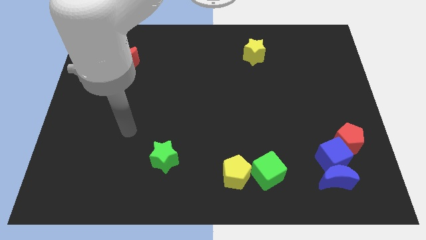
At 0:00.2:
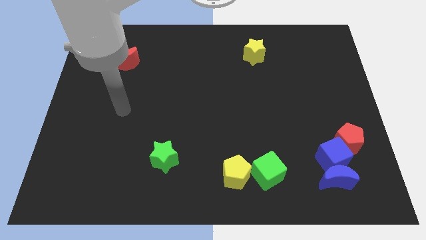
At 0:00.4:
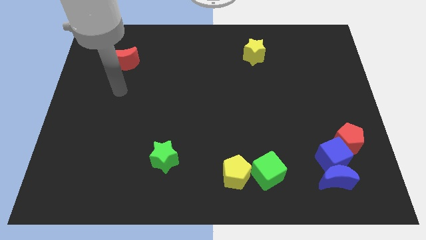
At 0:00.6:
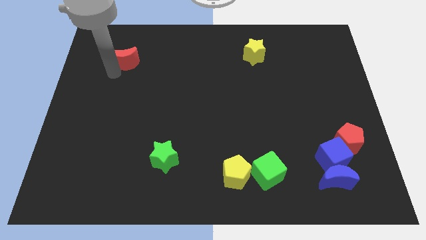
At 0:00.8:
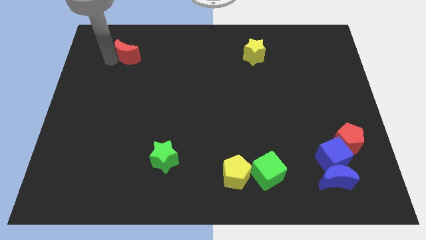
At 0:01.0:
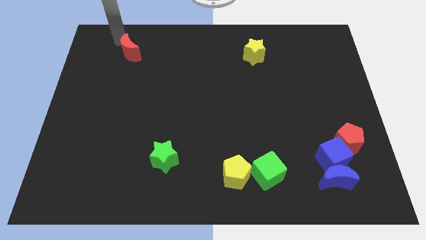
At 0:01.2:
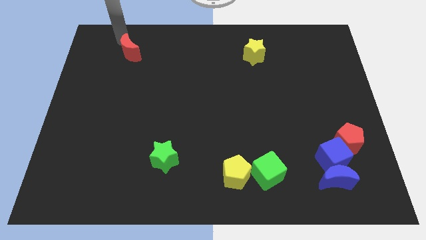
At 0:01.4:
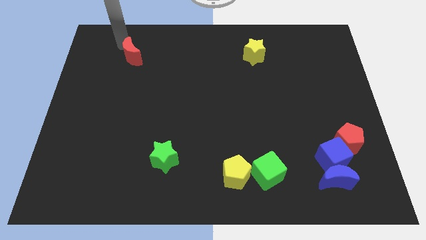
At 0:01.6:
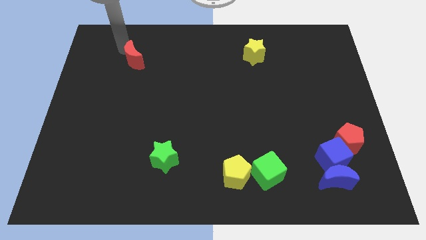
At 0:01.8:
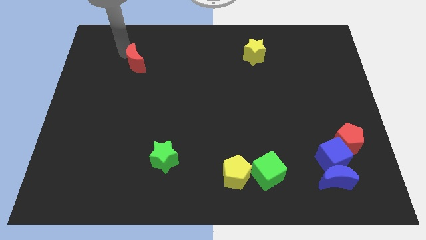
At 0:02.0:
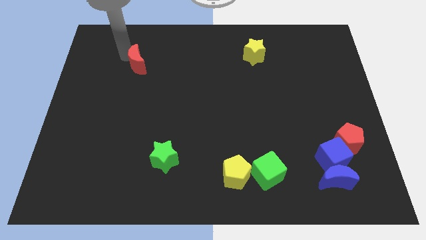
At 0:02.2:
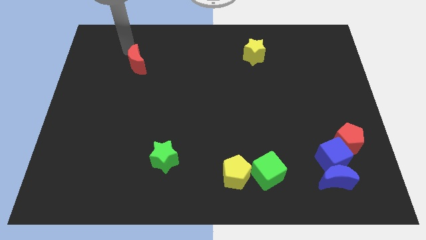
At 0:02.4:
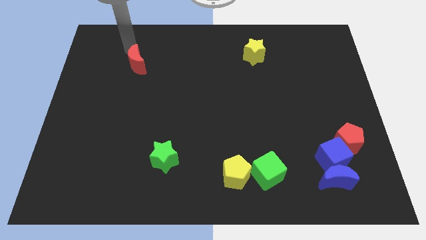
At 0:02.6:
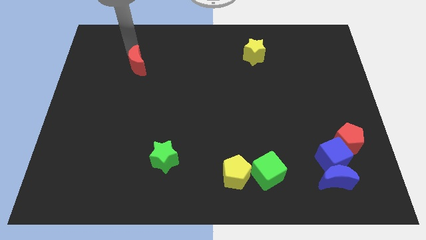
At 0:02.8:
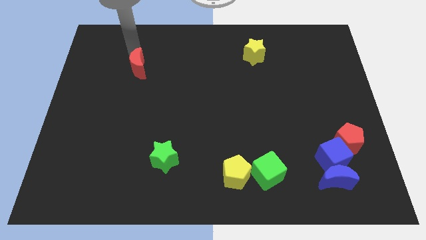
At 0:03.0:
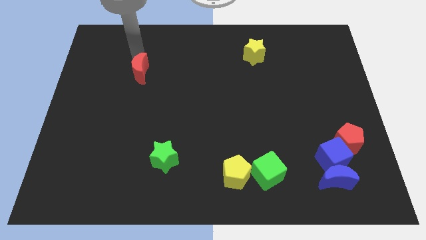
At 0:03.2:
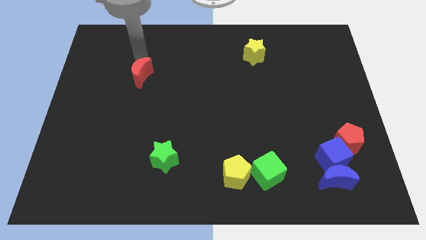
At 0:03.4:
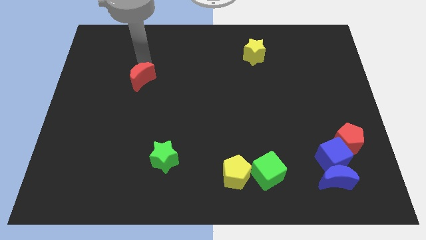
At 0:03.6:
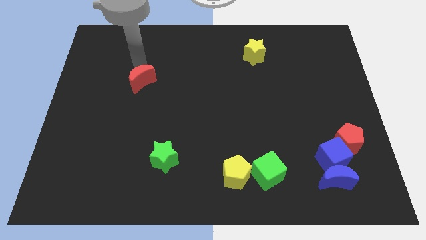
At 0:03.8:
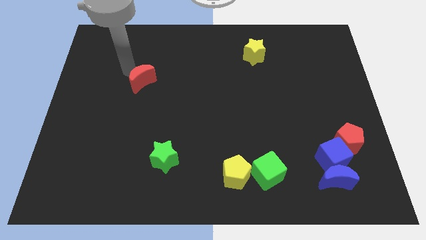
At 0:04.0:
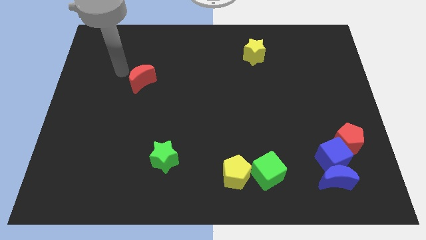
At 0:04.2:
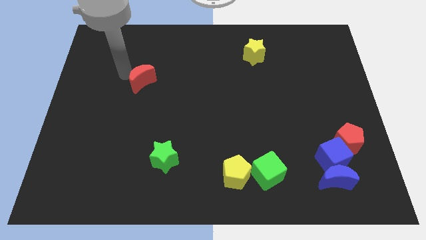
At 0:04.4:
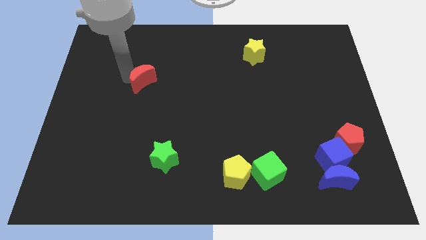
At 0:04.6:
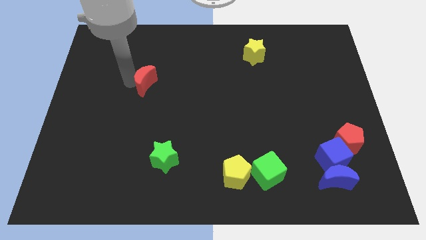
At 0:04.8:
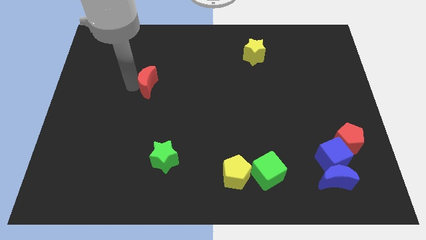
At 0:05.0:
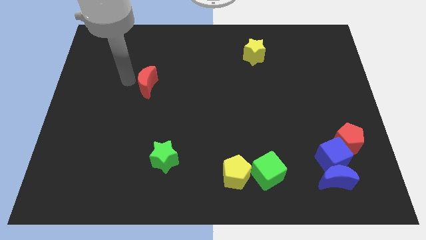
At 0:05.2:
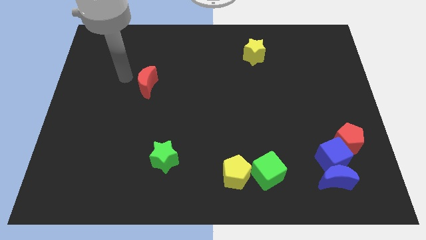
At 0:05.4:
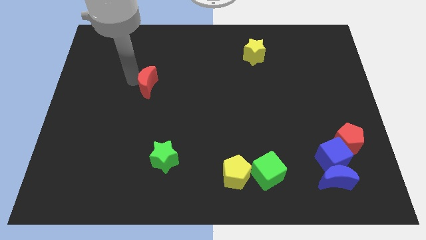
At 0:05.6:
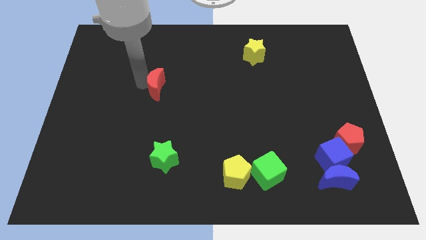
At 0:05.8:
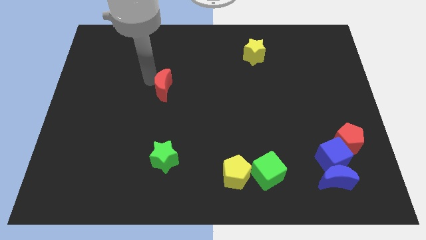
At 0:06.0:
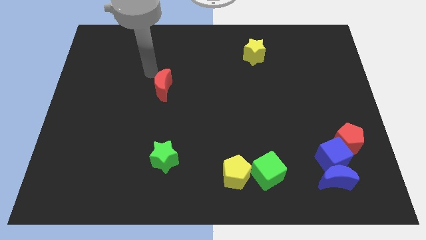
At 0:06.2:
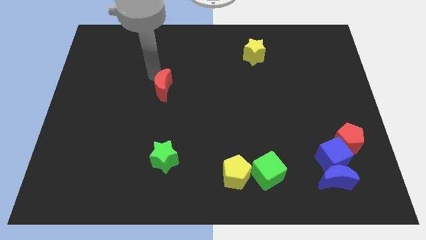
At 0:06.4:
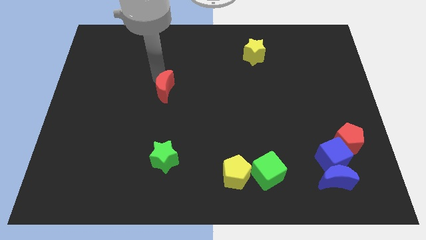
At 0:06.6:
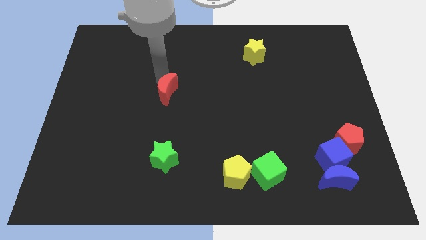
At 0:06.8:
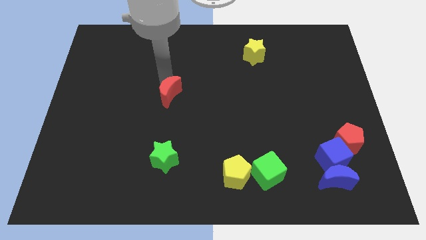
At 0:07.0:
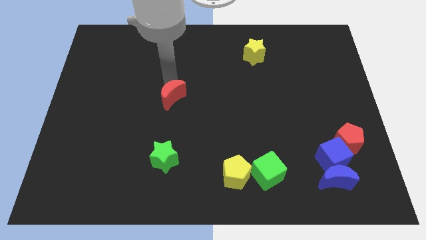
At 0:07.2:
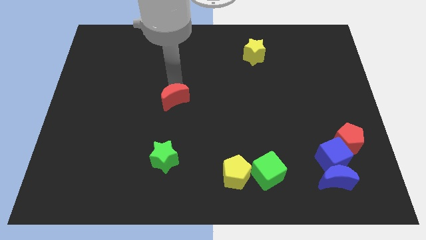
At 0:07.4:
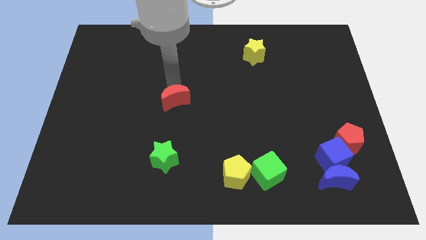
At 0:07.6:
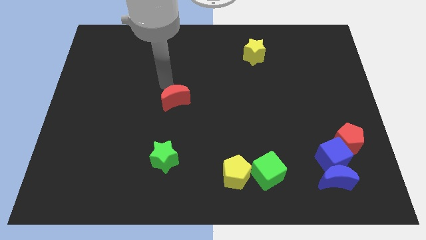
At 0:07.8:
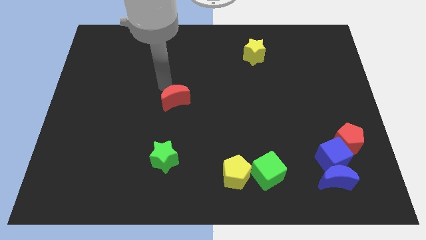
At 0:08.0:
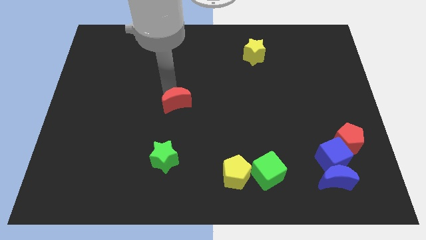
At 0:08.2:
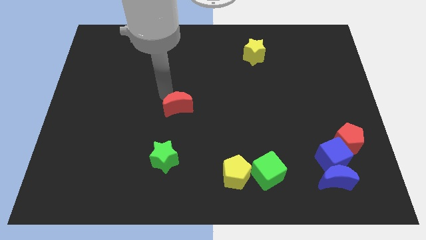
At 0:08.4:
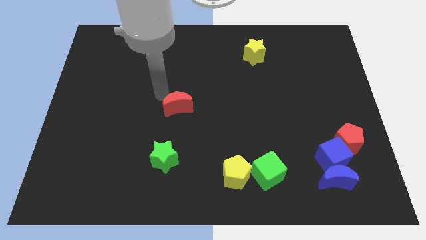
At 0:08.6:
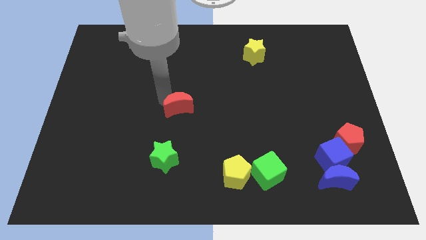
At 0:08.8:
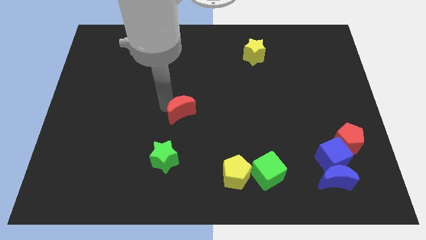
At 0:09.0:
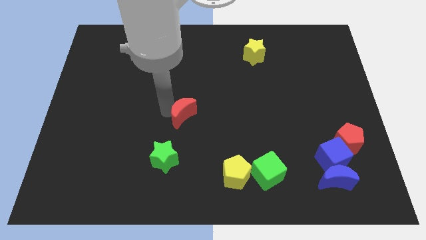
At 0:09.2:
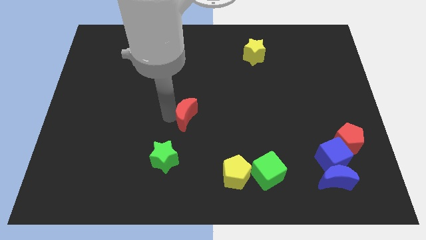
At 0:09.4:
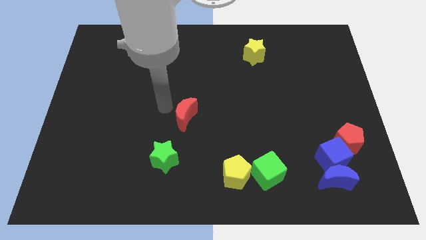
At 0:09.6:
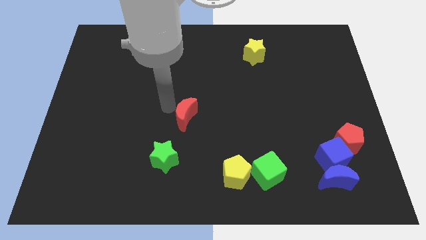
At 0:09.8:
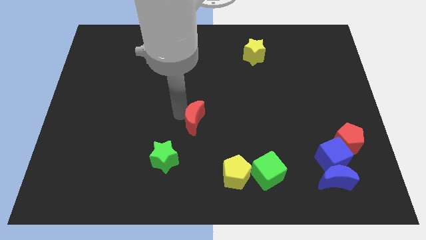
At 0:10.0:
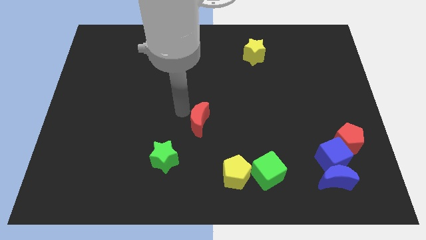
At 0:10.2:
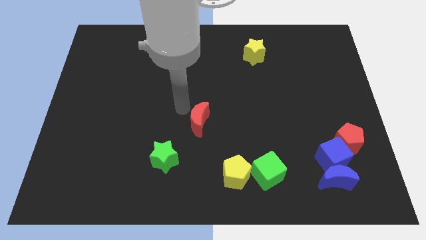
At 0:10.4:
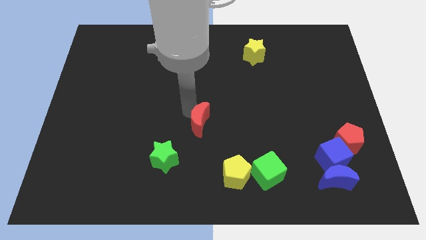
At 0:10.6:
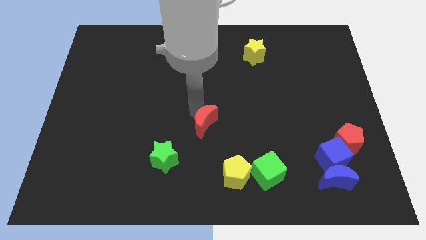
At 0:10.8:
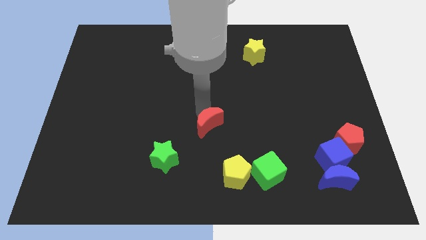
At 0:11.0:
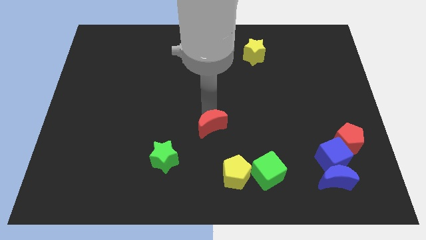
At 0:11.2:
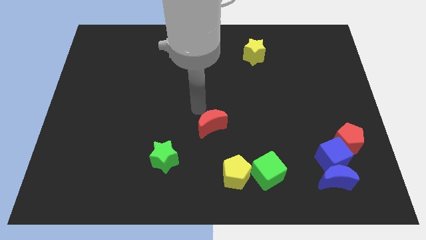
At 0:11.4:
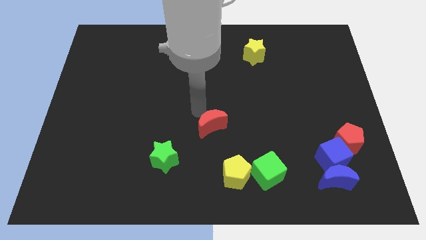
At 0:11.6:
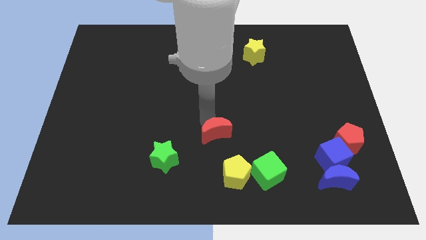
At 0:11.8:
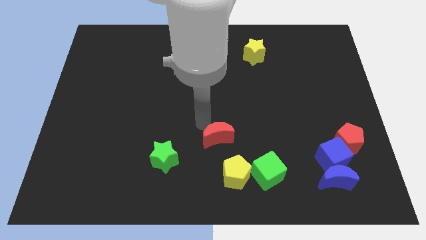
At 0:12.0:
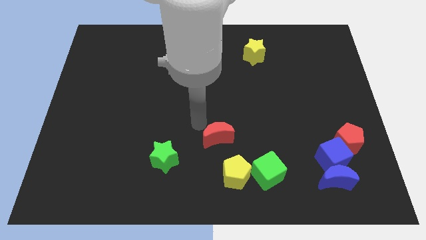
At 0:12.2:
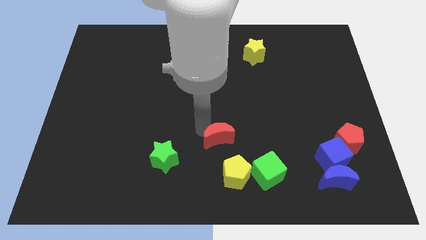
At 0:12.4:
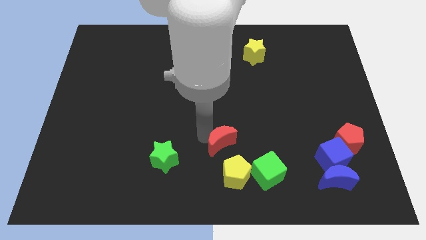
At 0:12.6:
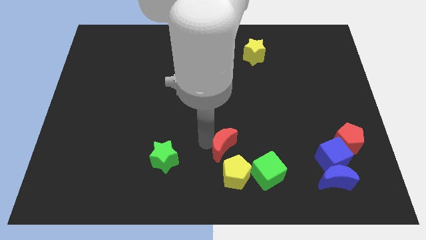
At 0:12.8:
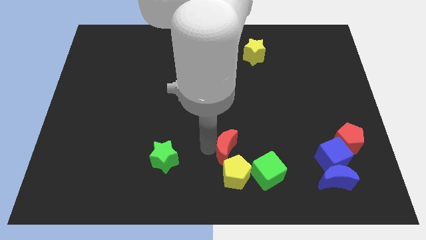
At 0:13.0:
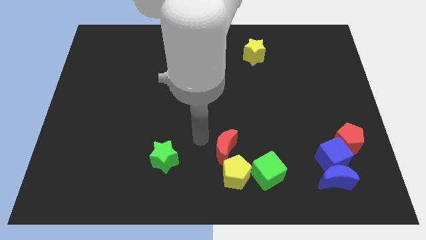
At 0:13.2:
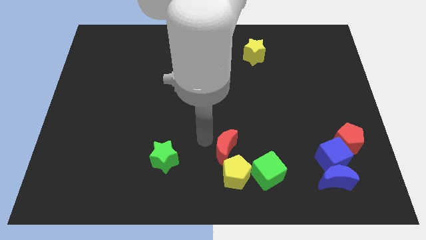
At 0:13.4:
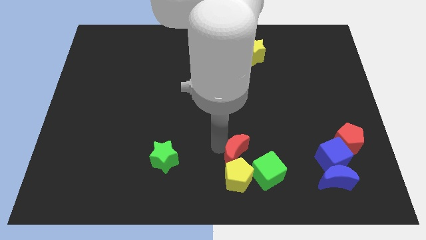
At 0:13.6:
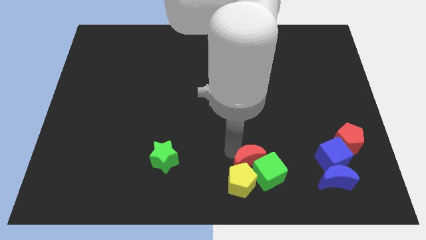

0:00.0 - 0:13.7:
slide the red moon next to the green cube
